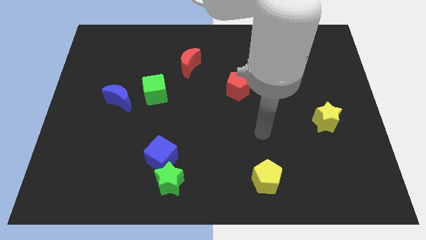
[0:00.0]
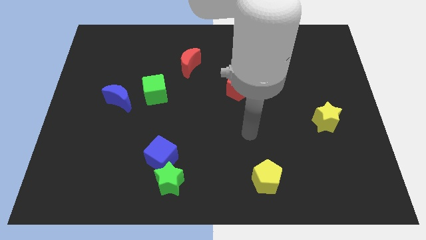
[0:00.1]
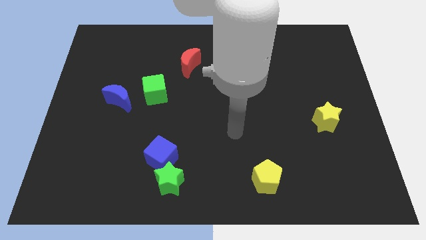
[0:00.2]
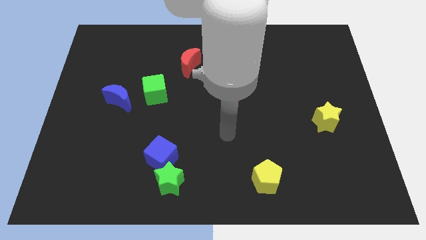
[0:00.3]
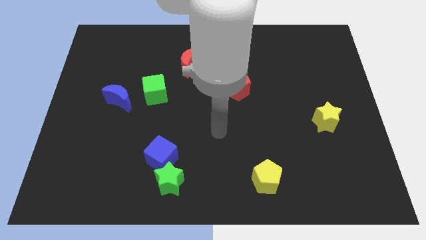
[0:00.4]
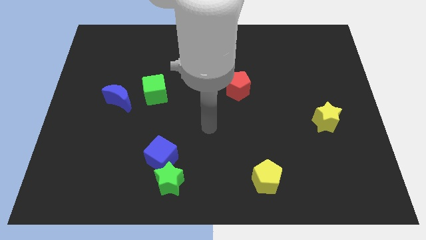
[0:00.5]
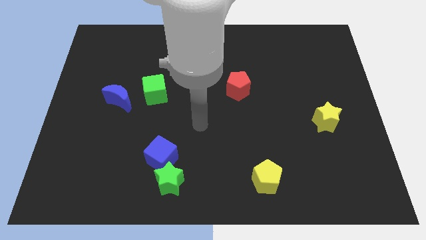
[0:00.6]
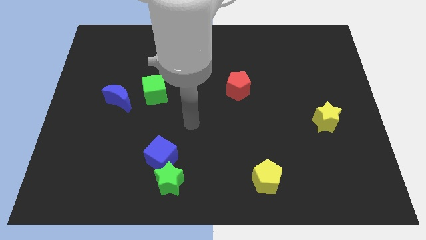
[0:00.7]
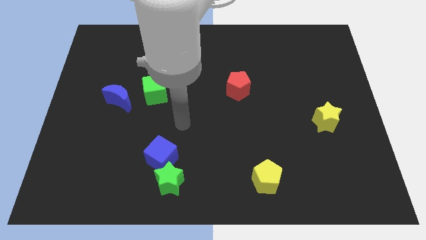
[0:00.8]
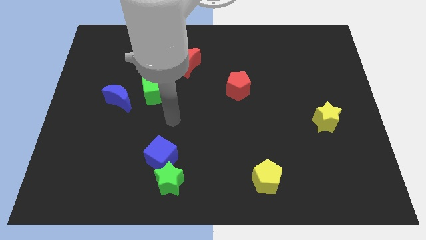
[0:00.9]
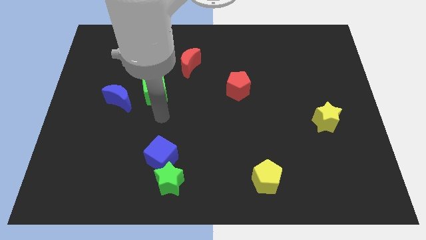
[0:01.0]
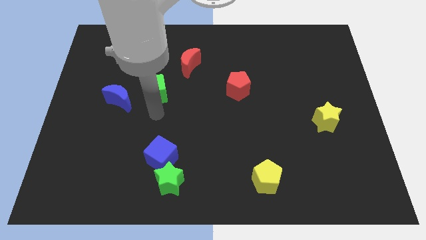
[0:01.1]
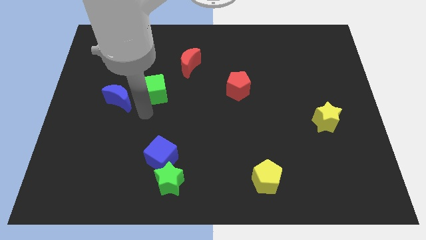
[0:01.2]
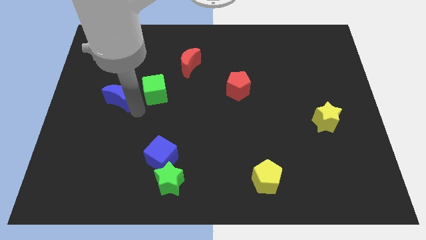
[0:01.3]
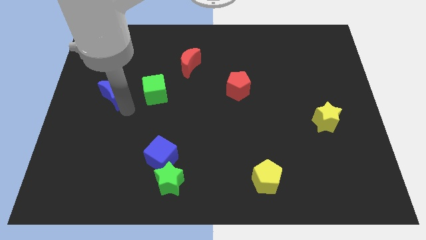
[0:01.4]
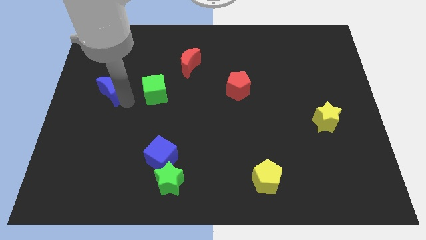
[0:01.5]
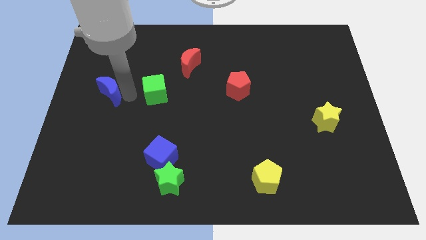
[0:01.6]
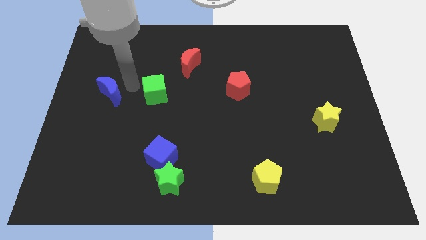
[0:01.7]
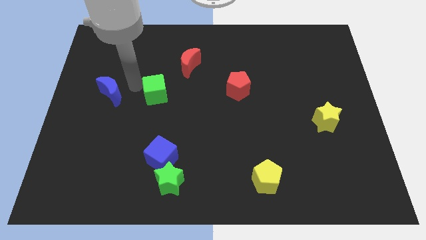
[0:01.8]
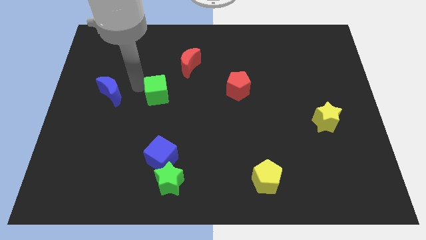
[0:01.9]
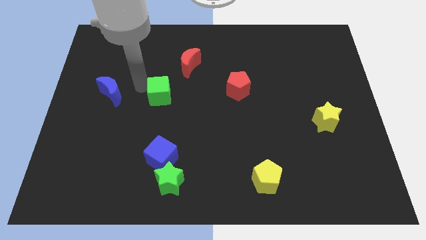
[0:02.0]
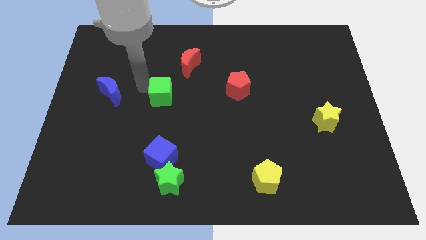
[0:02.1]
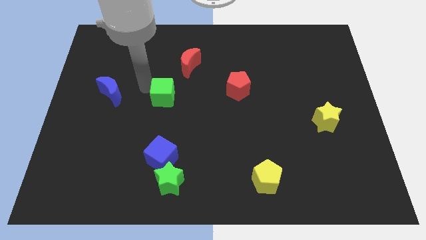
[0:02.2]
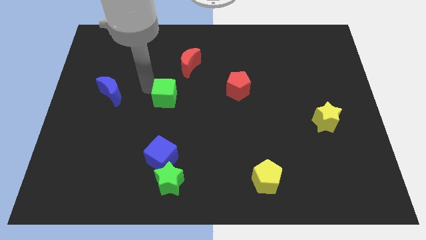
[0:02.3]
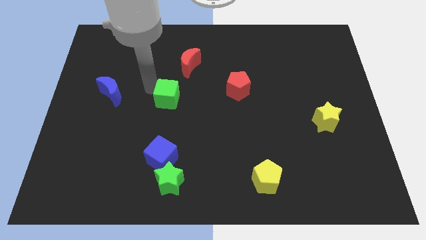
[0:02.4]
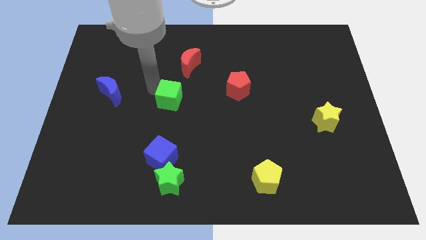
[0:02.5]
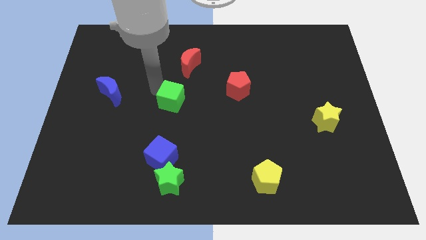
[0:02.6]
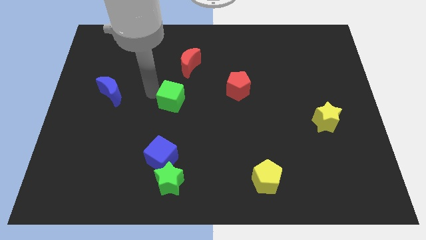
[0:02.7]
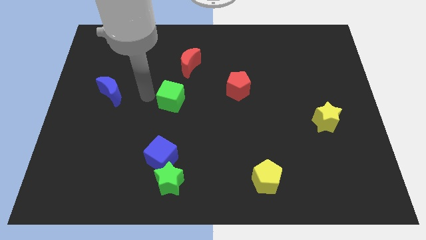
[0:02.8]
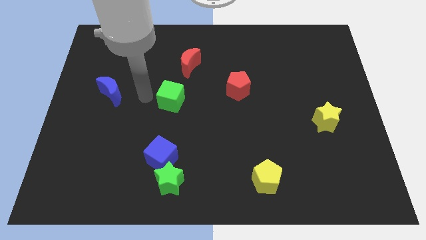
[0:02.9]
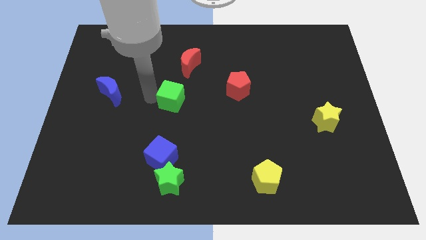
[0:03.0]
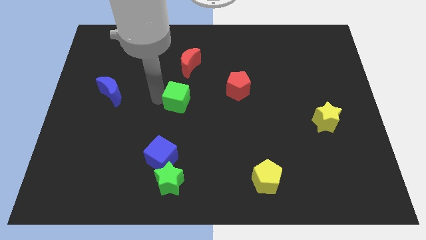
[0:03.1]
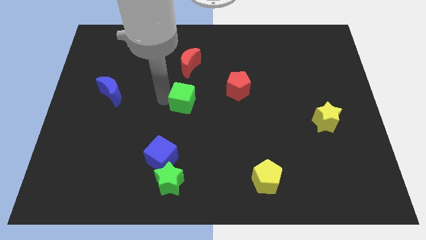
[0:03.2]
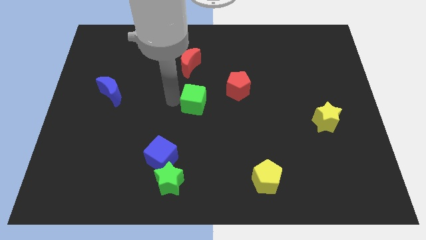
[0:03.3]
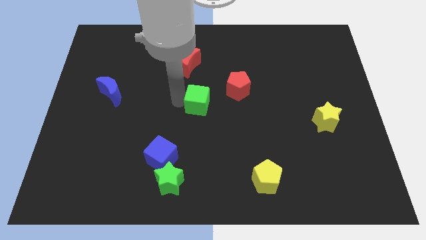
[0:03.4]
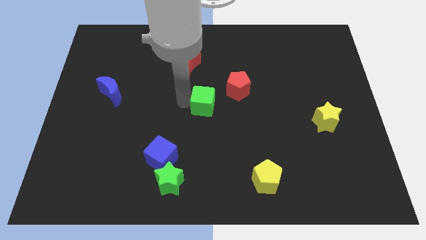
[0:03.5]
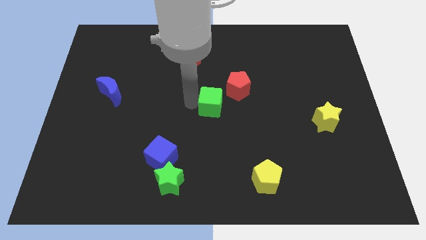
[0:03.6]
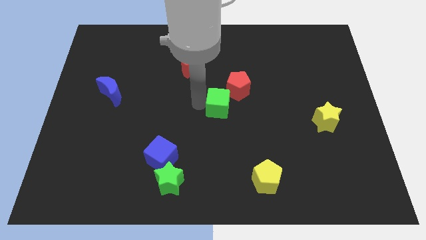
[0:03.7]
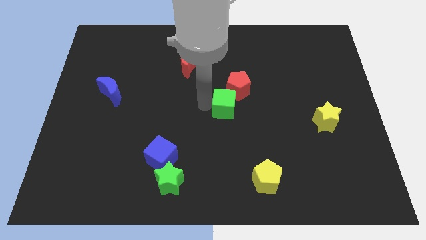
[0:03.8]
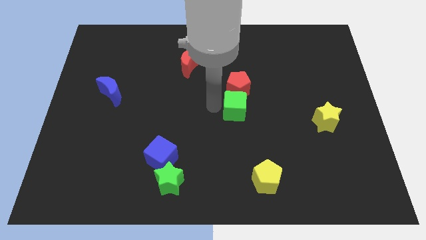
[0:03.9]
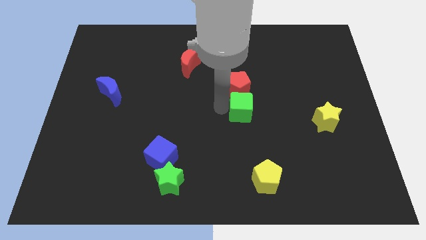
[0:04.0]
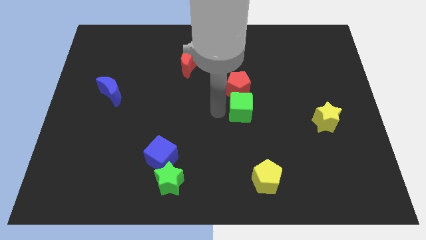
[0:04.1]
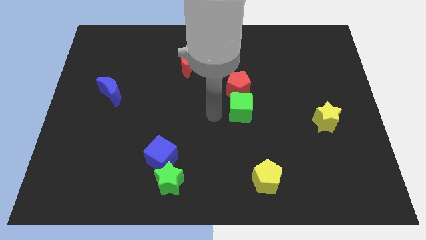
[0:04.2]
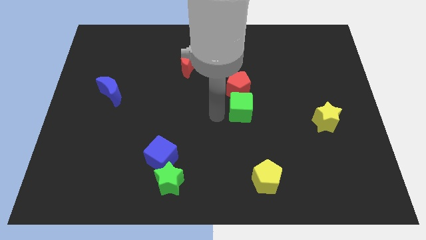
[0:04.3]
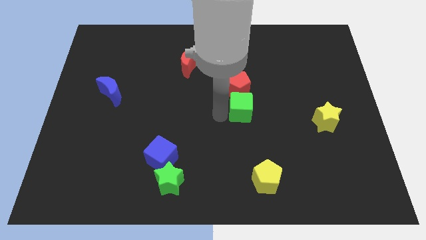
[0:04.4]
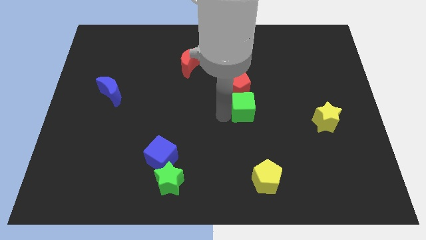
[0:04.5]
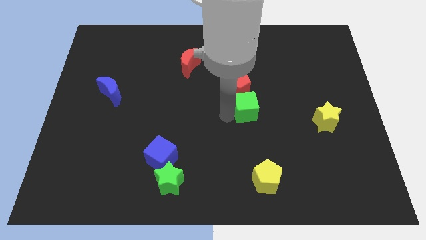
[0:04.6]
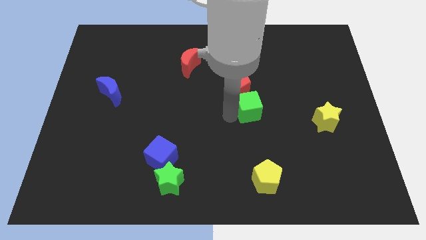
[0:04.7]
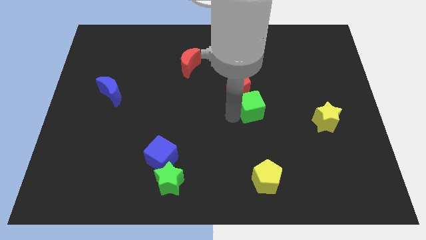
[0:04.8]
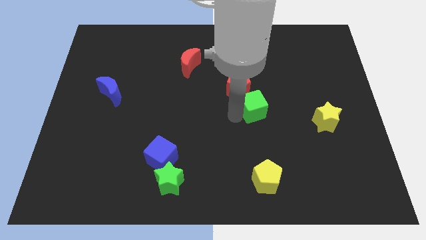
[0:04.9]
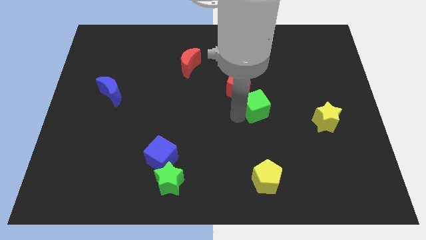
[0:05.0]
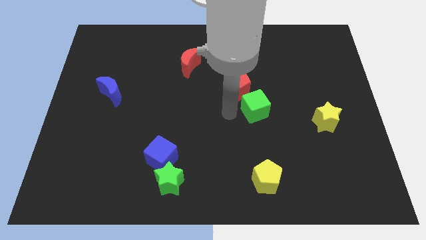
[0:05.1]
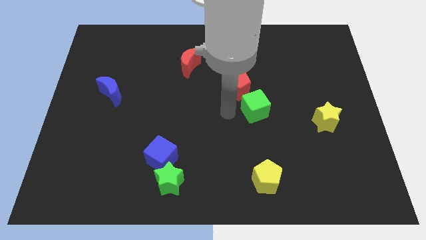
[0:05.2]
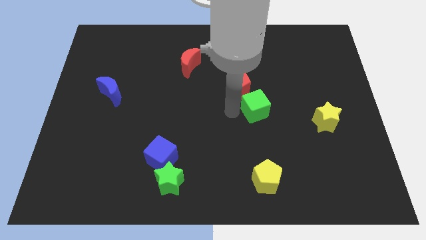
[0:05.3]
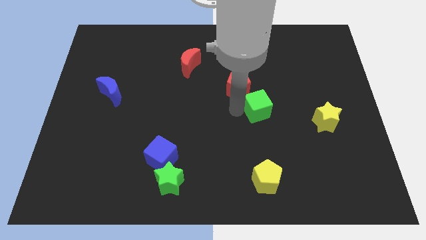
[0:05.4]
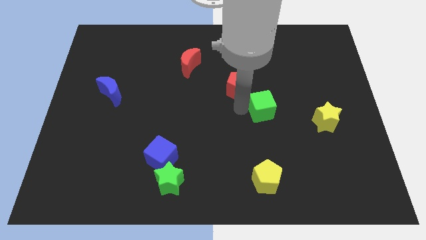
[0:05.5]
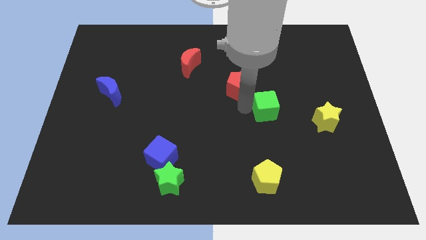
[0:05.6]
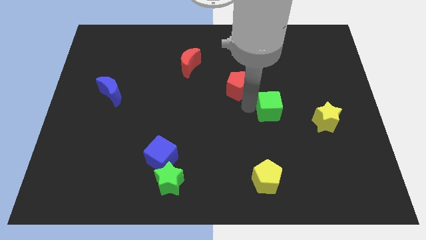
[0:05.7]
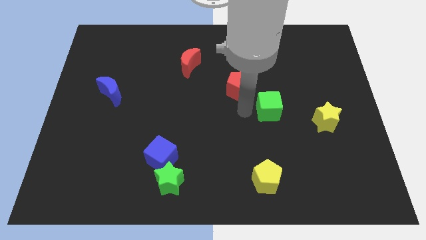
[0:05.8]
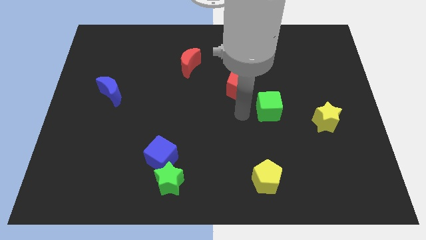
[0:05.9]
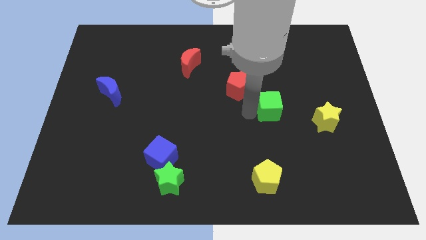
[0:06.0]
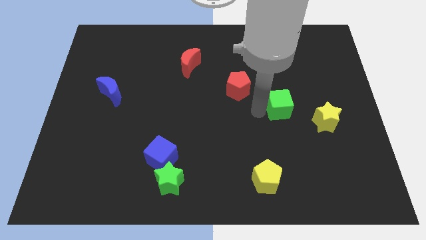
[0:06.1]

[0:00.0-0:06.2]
slide the green cube to the top left side of the yellow star
